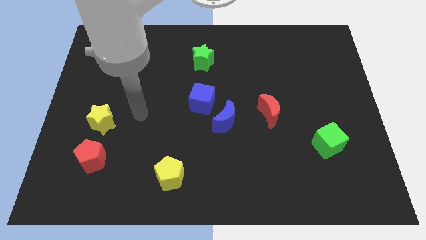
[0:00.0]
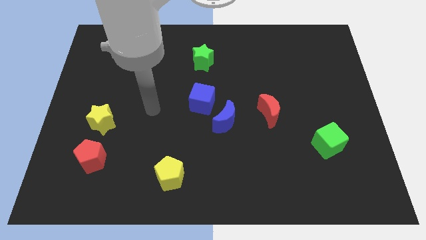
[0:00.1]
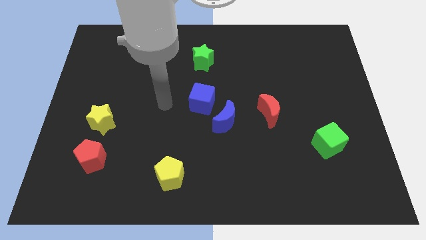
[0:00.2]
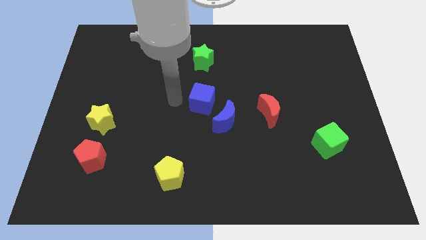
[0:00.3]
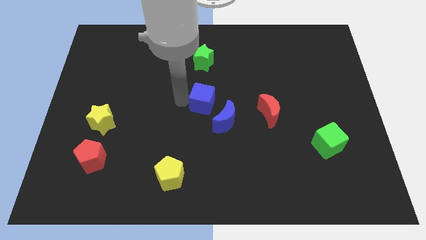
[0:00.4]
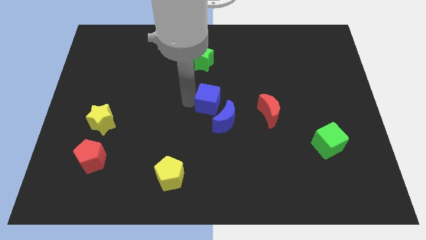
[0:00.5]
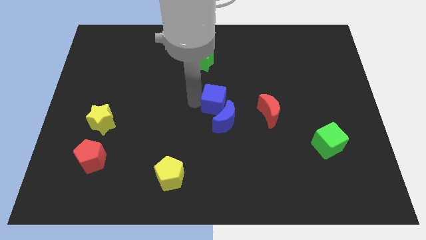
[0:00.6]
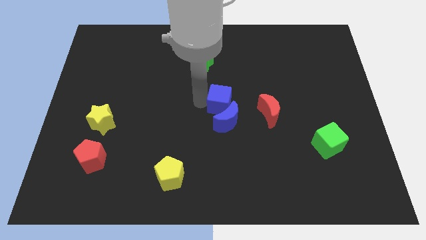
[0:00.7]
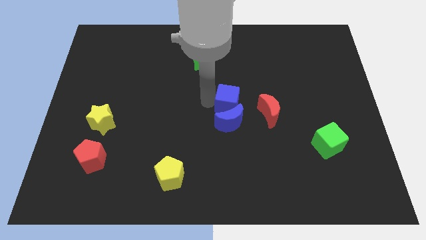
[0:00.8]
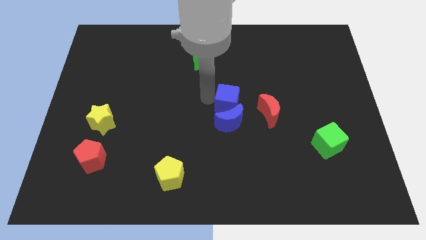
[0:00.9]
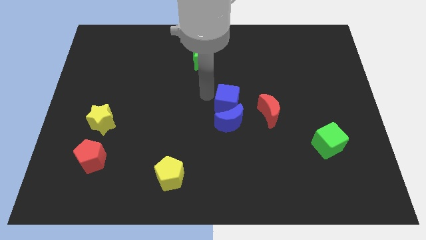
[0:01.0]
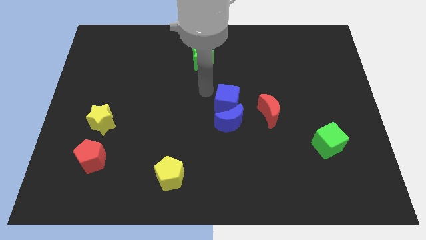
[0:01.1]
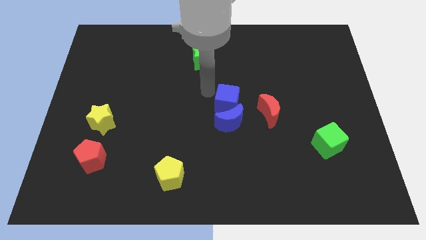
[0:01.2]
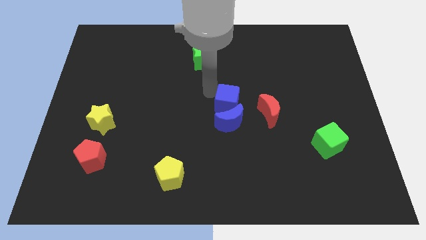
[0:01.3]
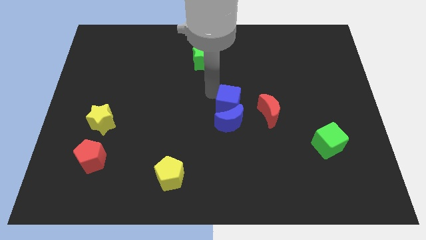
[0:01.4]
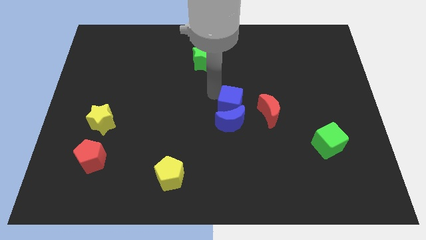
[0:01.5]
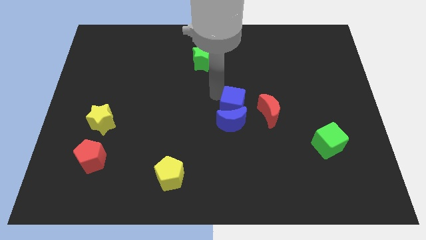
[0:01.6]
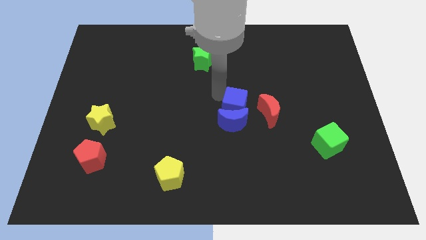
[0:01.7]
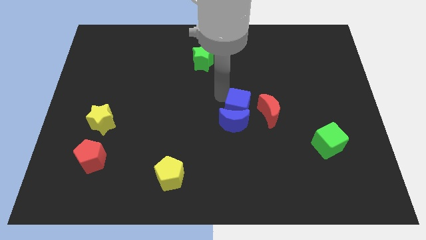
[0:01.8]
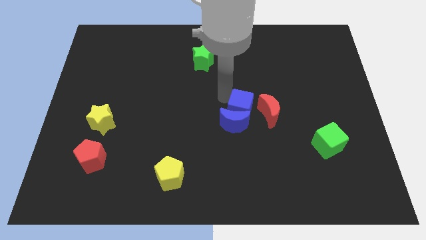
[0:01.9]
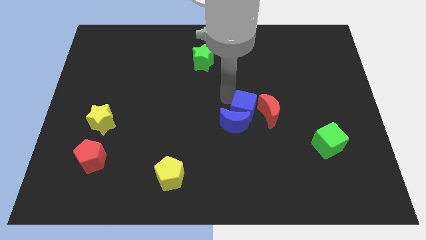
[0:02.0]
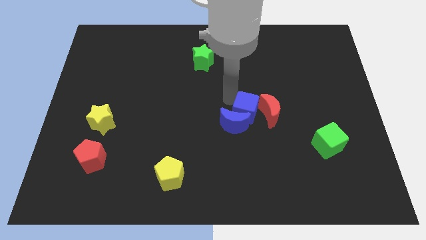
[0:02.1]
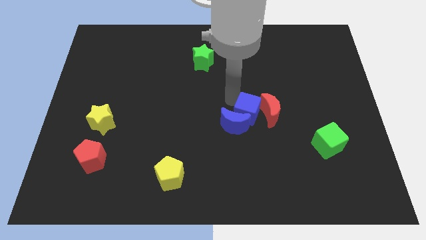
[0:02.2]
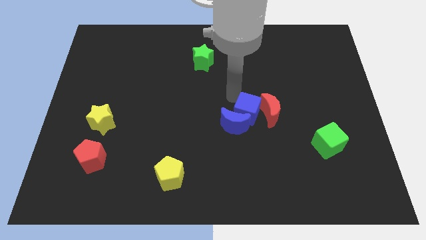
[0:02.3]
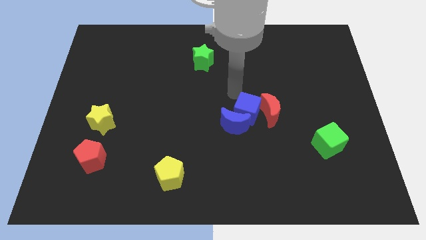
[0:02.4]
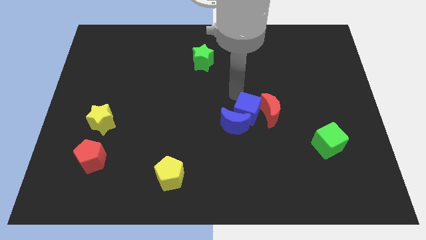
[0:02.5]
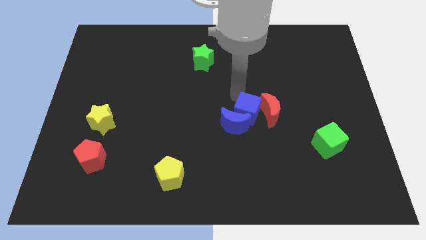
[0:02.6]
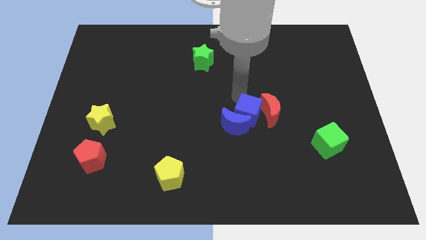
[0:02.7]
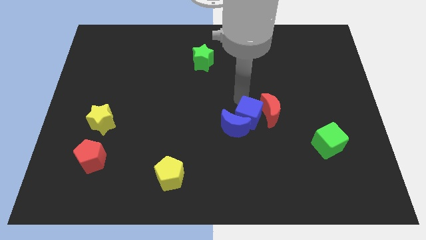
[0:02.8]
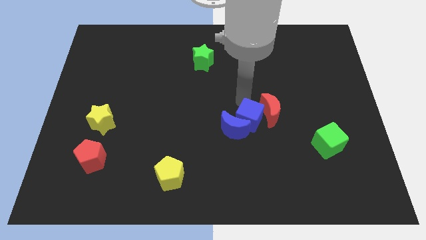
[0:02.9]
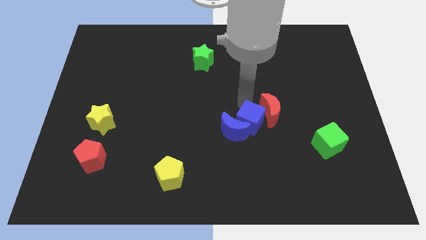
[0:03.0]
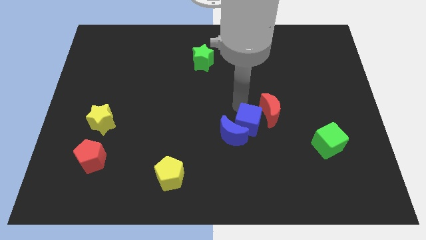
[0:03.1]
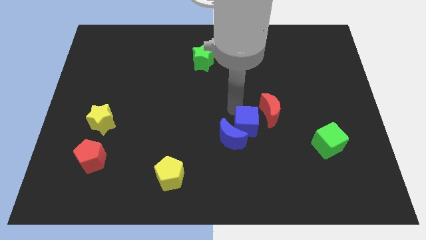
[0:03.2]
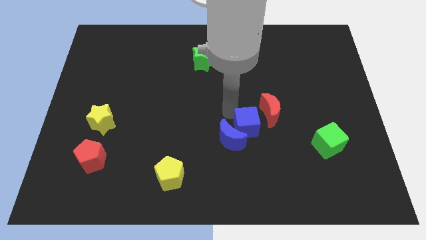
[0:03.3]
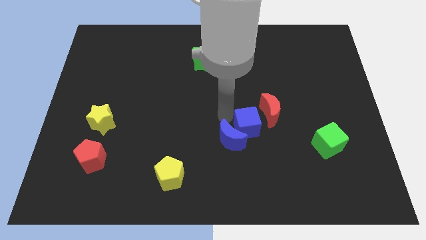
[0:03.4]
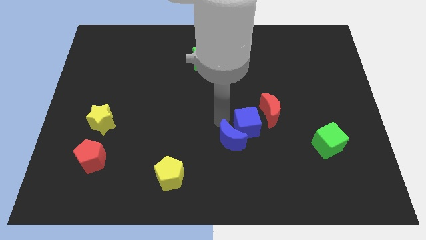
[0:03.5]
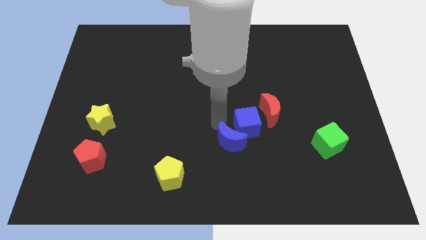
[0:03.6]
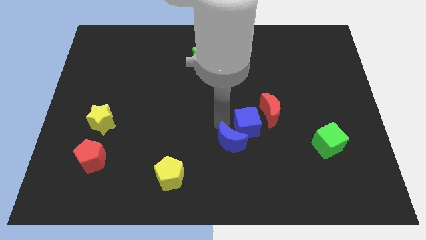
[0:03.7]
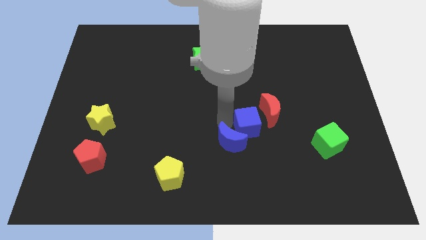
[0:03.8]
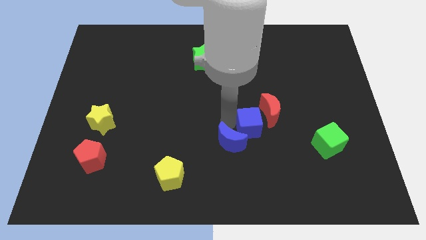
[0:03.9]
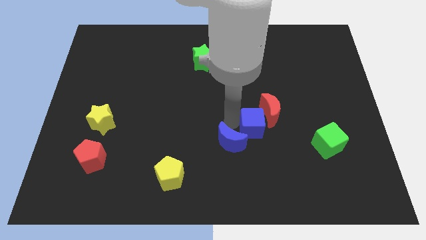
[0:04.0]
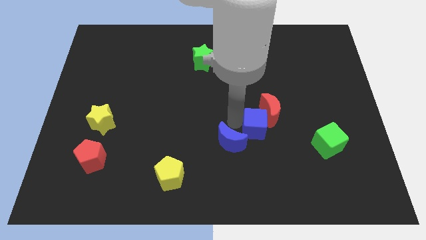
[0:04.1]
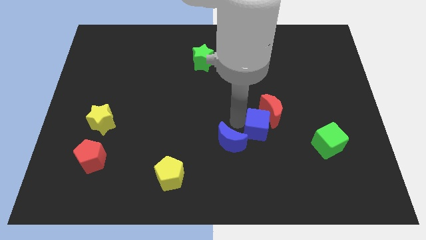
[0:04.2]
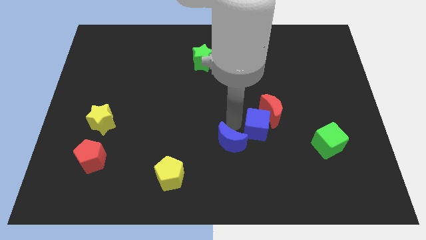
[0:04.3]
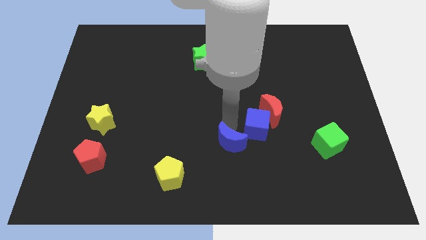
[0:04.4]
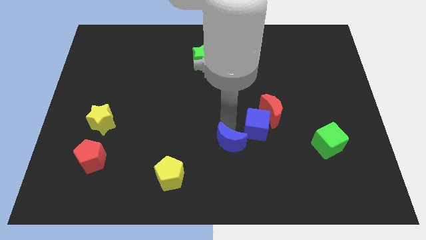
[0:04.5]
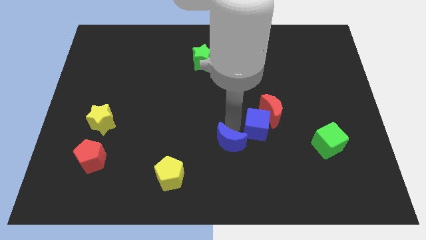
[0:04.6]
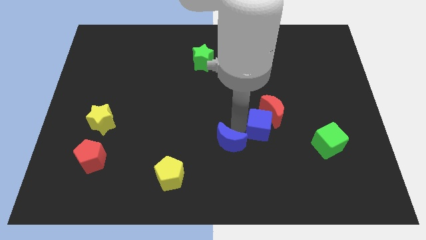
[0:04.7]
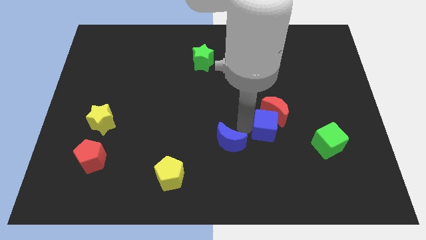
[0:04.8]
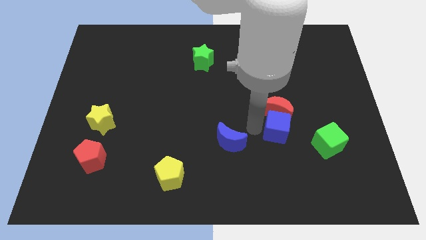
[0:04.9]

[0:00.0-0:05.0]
move the blue cube to the bottom right side of the red moon

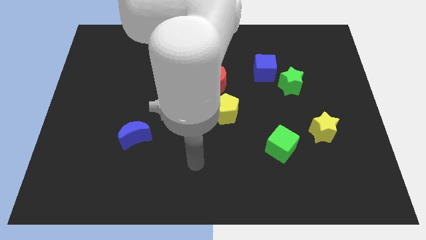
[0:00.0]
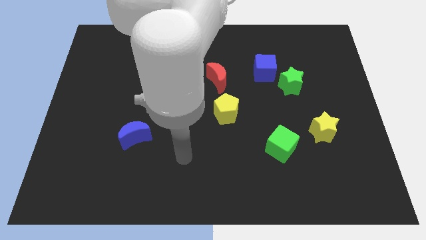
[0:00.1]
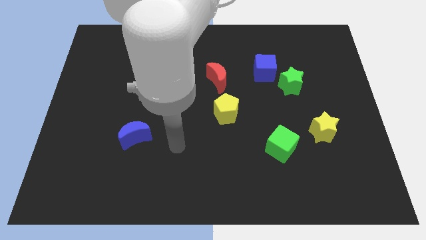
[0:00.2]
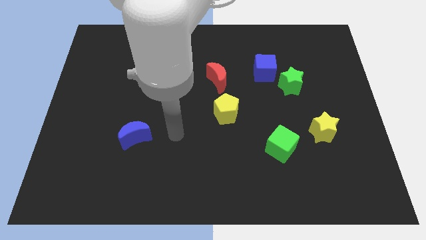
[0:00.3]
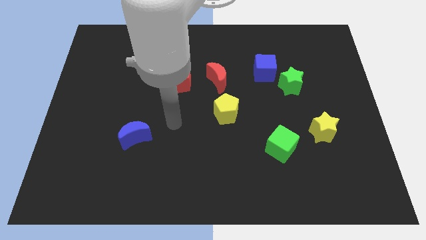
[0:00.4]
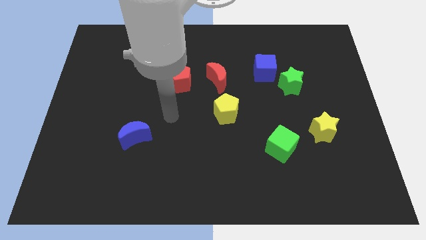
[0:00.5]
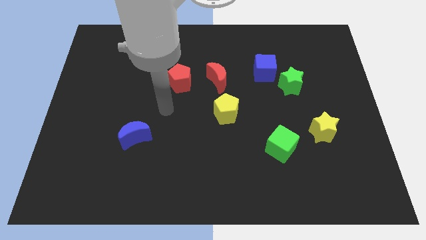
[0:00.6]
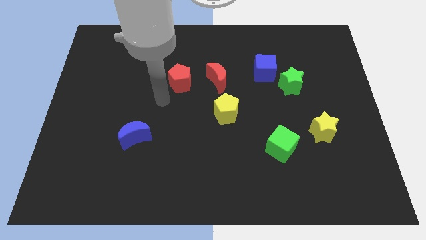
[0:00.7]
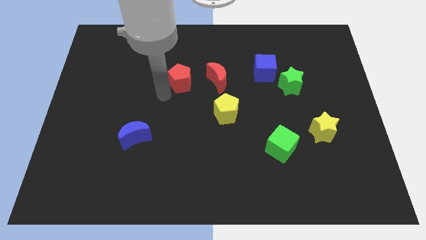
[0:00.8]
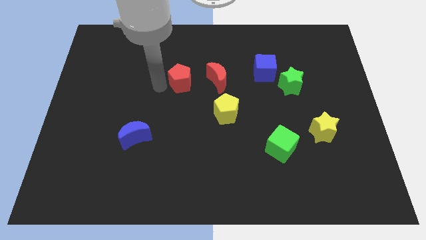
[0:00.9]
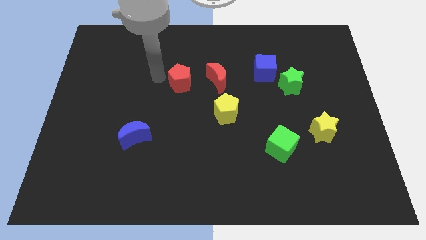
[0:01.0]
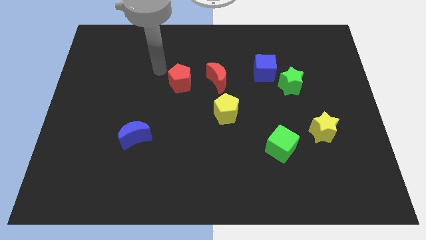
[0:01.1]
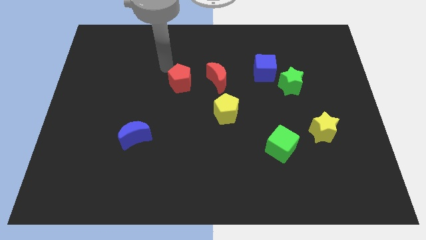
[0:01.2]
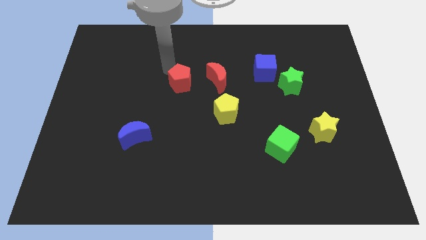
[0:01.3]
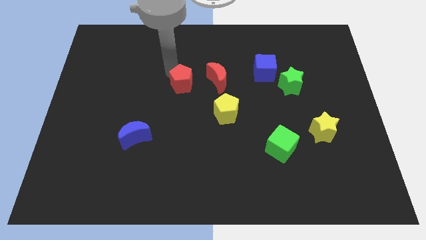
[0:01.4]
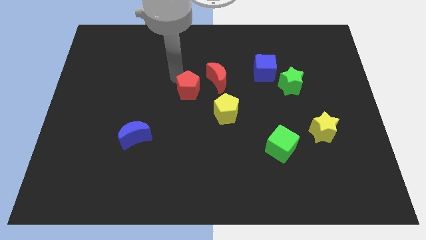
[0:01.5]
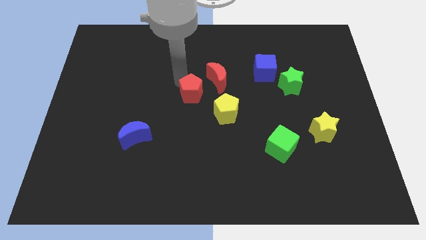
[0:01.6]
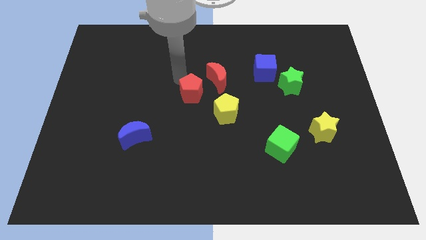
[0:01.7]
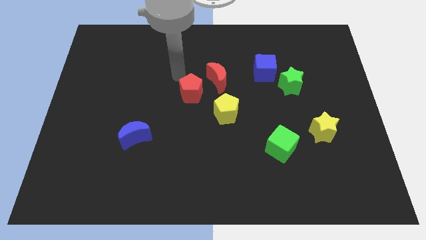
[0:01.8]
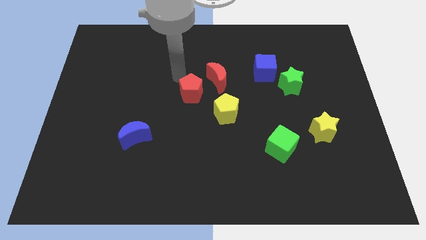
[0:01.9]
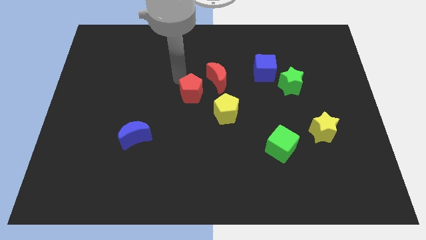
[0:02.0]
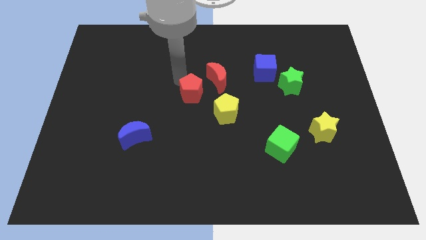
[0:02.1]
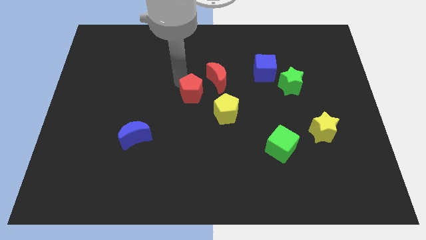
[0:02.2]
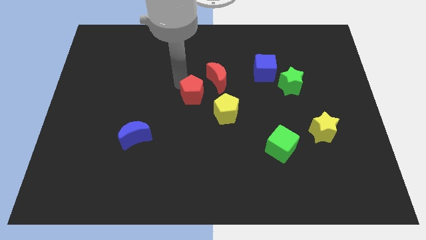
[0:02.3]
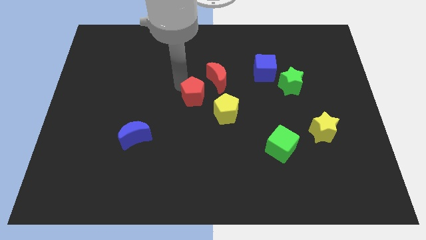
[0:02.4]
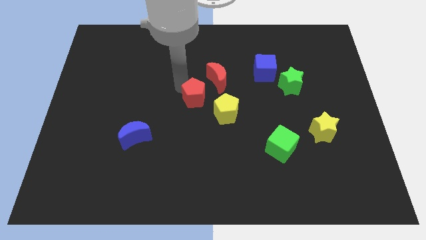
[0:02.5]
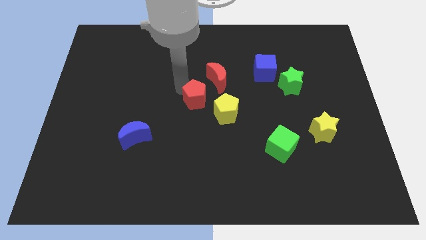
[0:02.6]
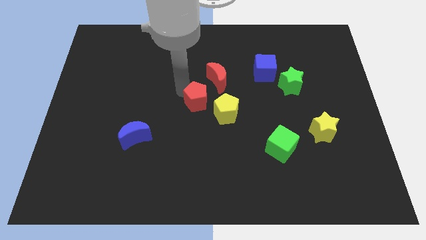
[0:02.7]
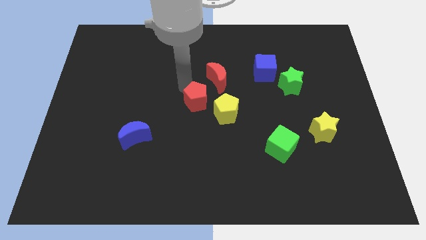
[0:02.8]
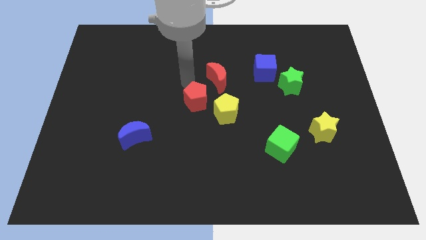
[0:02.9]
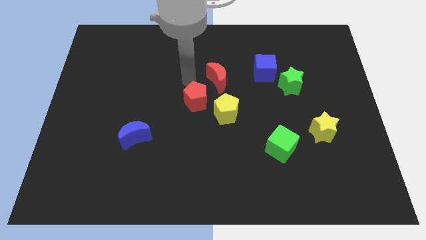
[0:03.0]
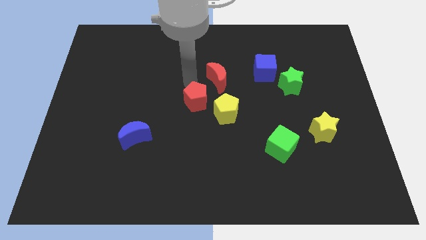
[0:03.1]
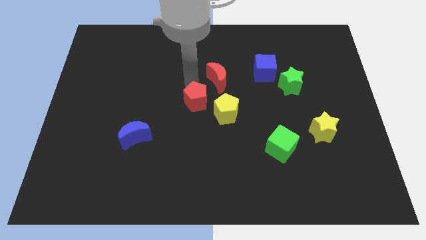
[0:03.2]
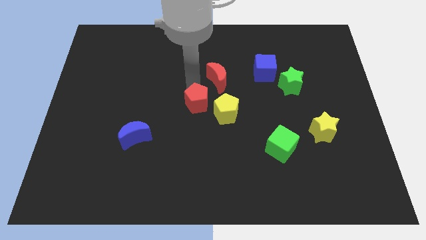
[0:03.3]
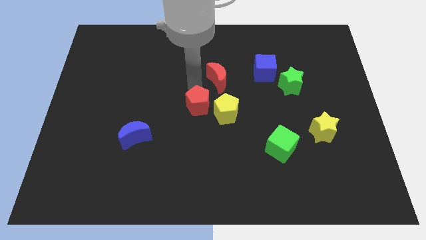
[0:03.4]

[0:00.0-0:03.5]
push the red pentagon below the red moon
